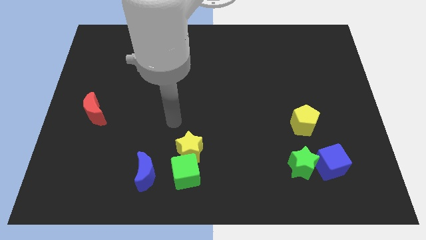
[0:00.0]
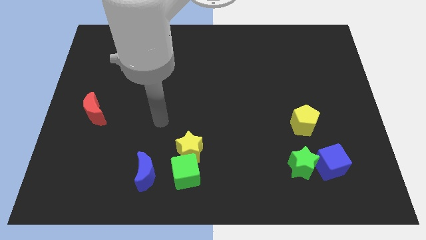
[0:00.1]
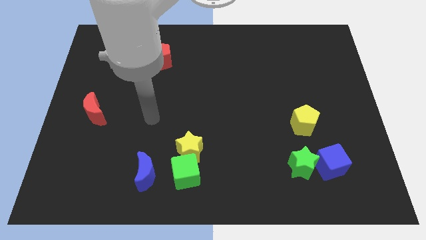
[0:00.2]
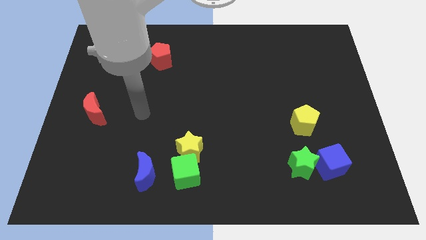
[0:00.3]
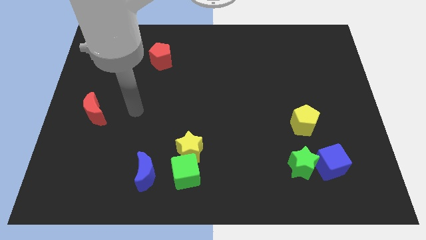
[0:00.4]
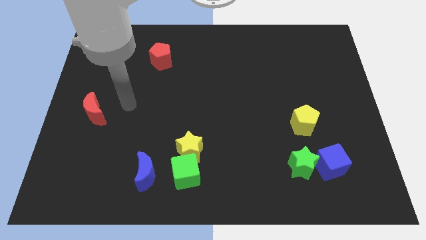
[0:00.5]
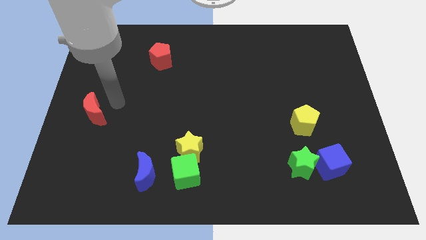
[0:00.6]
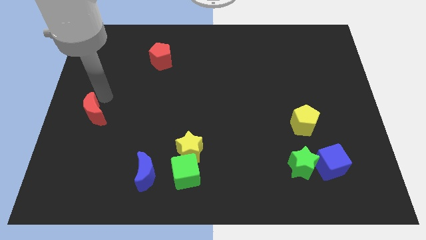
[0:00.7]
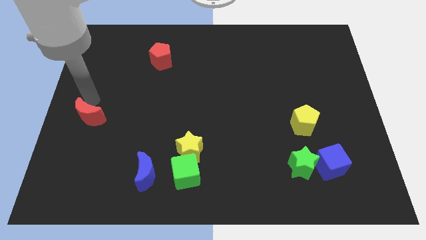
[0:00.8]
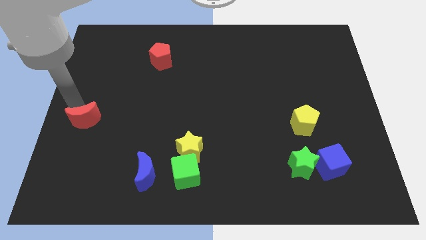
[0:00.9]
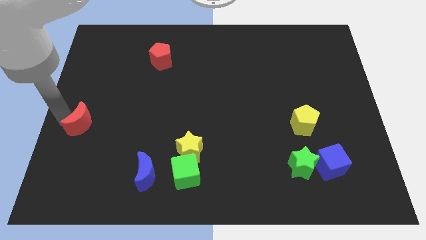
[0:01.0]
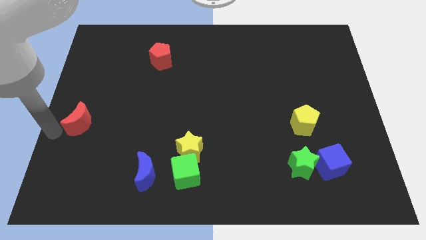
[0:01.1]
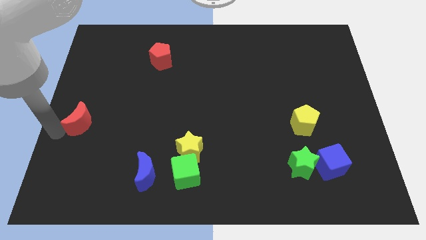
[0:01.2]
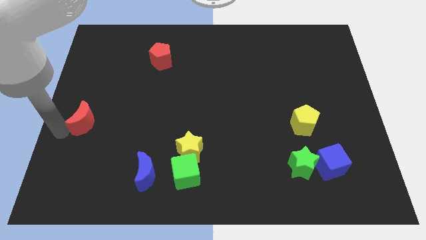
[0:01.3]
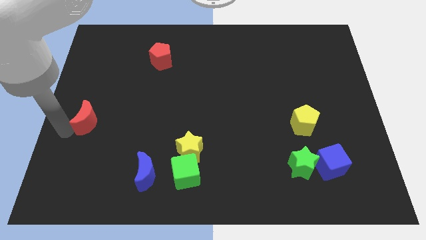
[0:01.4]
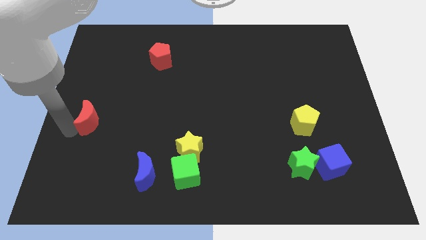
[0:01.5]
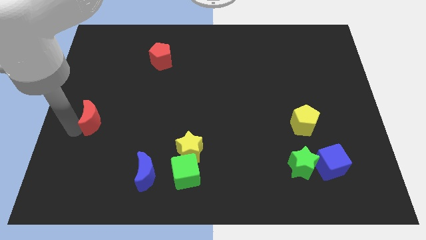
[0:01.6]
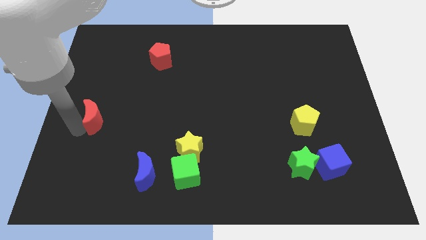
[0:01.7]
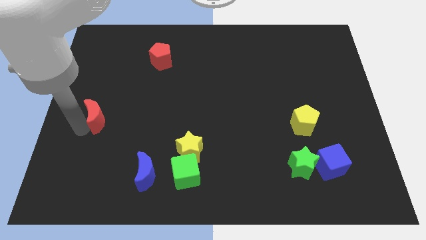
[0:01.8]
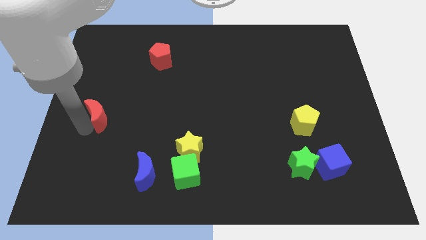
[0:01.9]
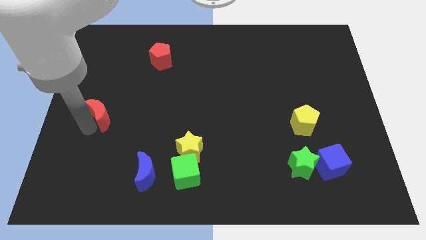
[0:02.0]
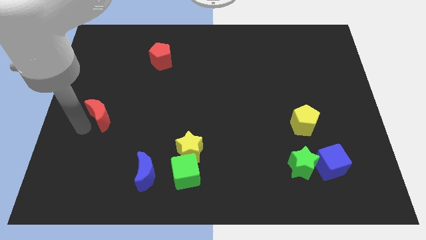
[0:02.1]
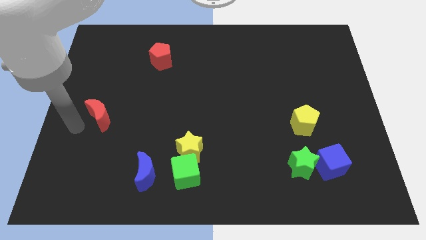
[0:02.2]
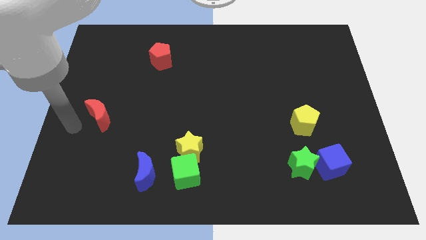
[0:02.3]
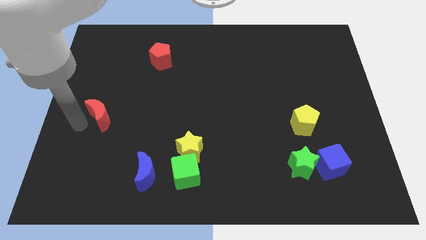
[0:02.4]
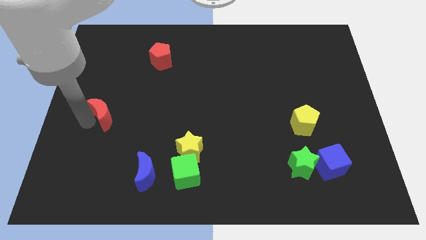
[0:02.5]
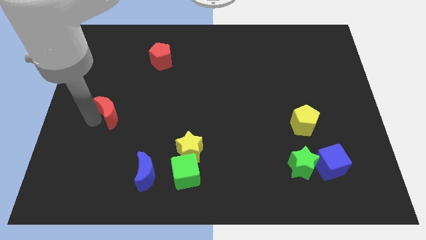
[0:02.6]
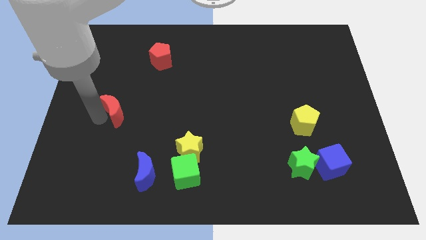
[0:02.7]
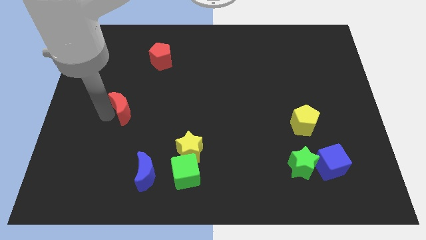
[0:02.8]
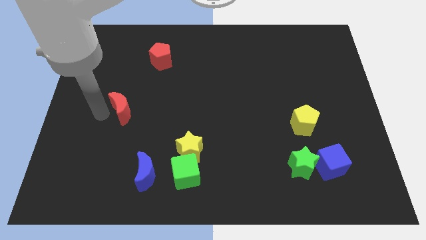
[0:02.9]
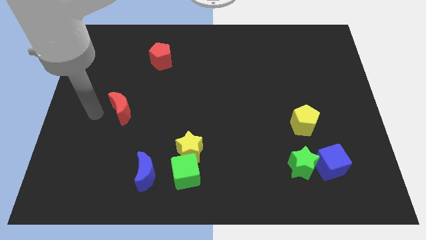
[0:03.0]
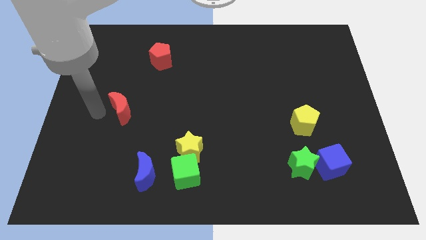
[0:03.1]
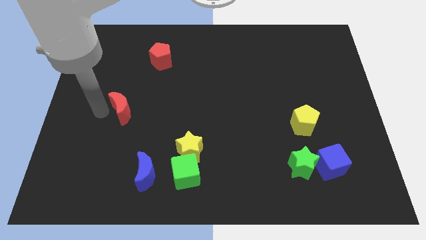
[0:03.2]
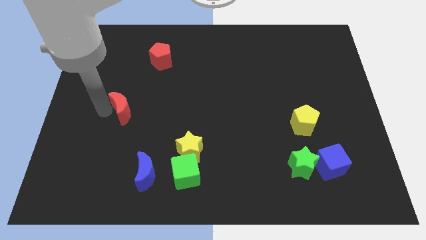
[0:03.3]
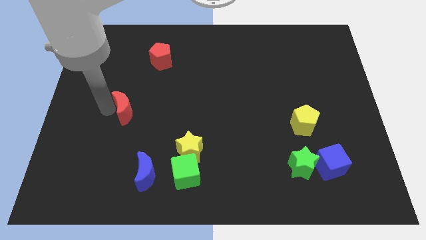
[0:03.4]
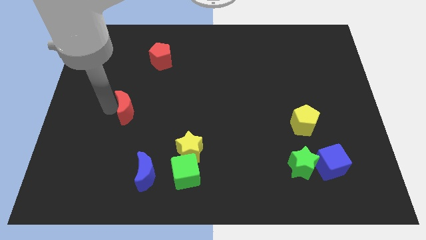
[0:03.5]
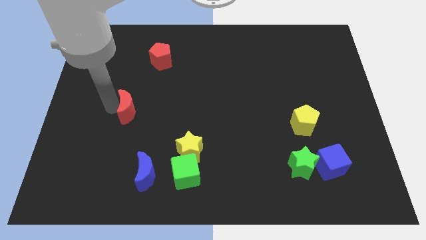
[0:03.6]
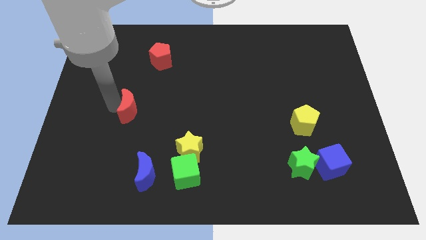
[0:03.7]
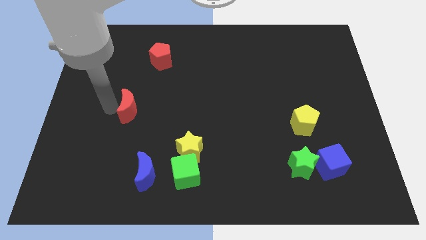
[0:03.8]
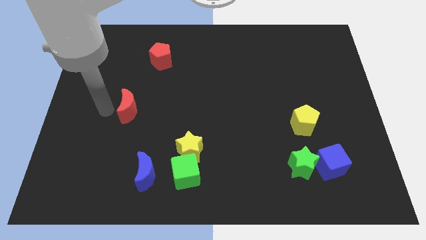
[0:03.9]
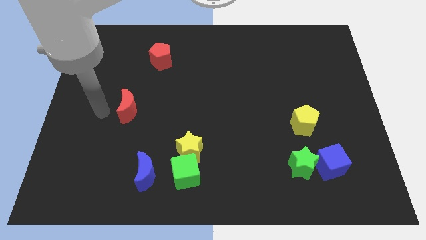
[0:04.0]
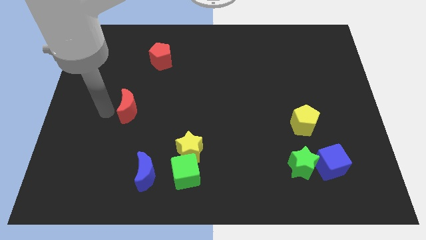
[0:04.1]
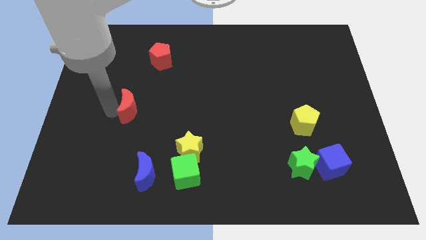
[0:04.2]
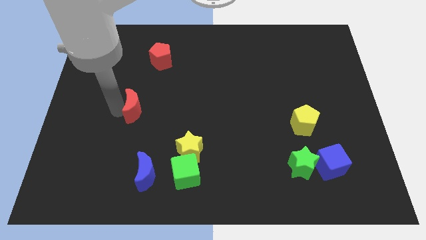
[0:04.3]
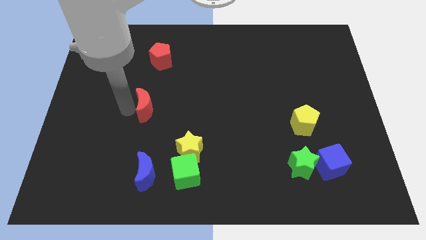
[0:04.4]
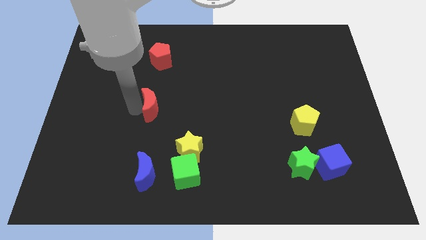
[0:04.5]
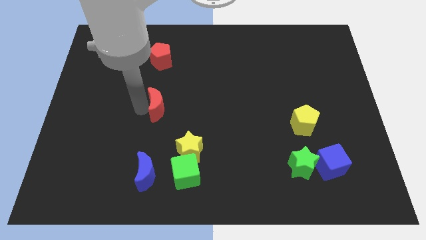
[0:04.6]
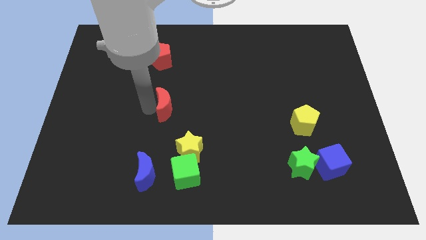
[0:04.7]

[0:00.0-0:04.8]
slide the red moon to the center

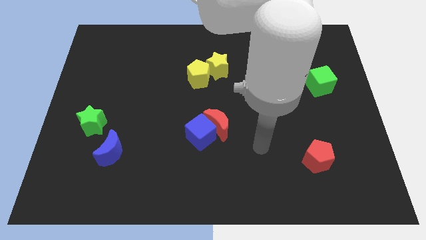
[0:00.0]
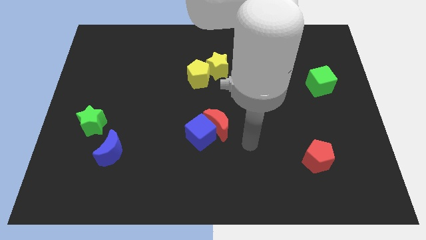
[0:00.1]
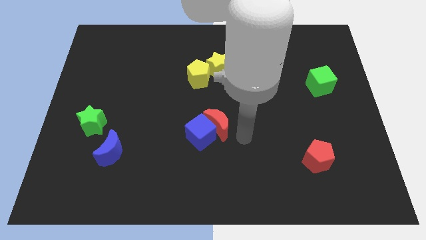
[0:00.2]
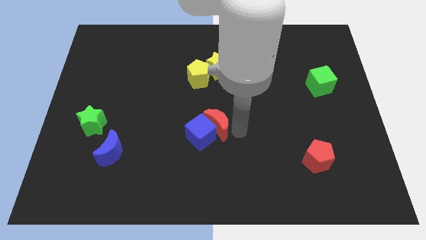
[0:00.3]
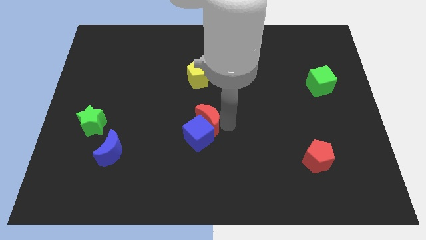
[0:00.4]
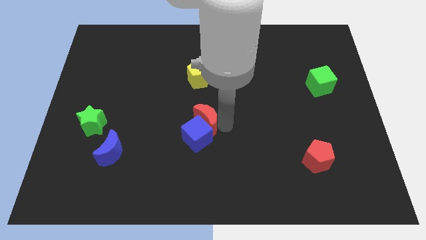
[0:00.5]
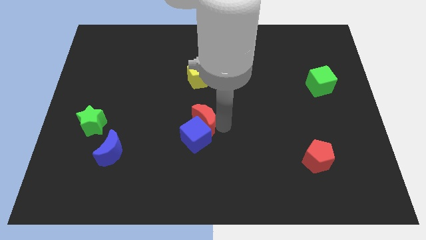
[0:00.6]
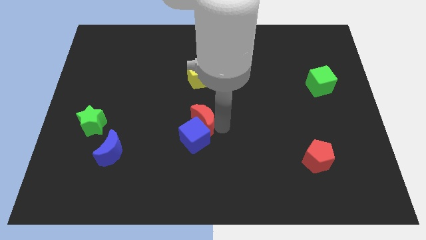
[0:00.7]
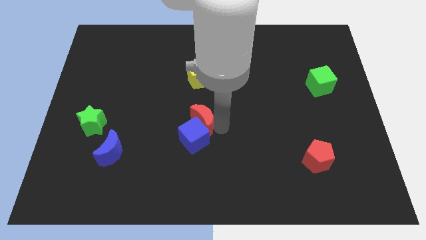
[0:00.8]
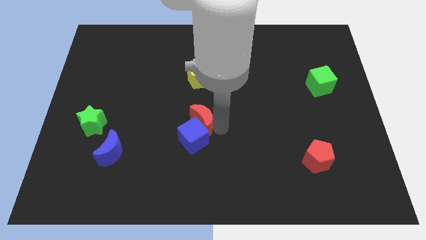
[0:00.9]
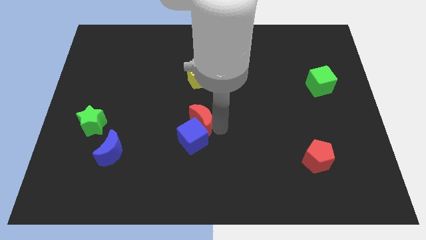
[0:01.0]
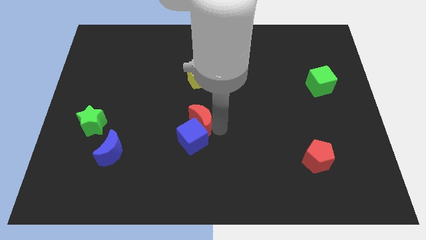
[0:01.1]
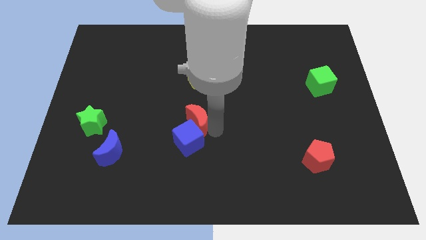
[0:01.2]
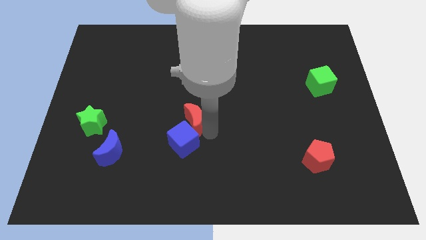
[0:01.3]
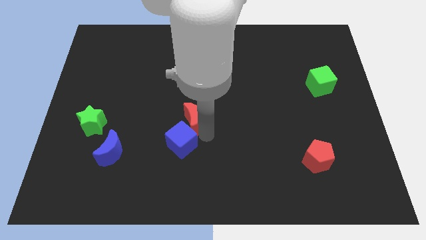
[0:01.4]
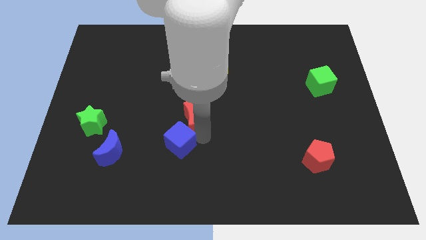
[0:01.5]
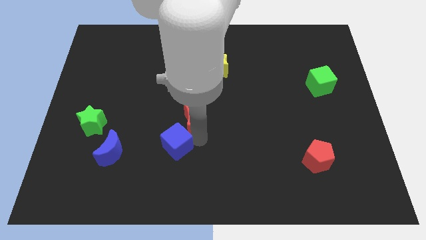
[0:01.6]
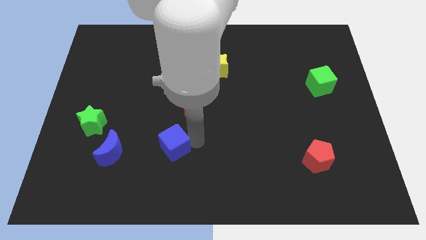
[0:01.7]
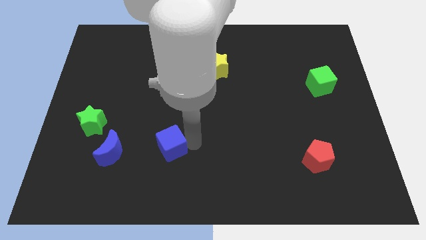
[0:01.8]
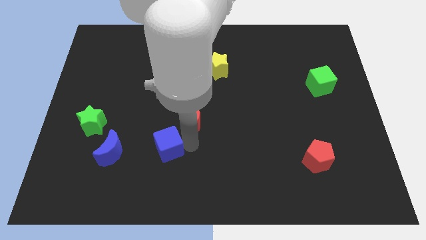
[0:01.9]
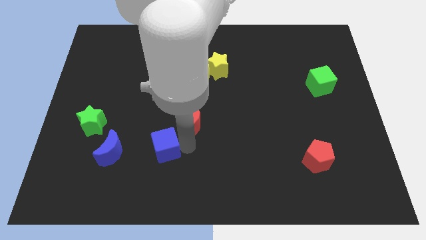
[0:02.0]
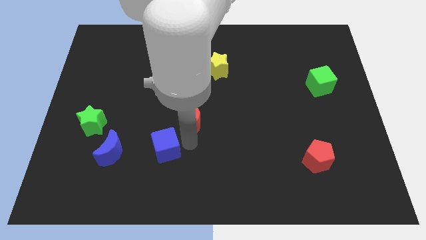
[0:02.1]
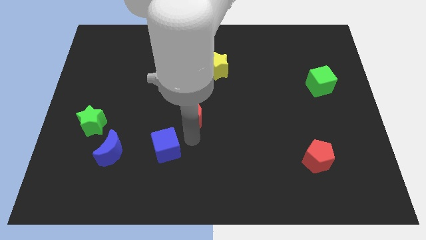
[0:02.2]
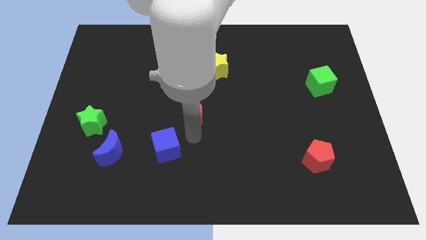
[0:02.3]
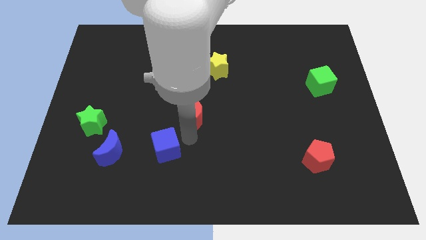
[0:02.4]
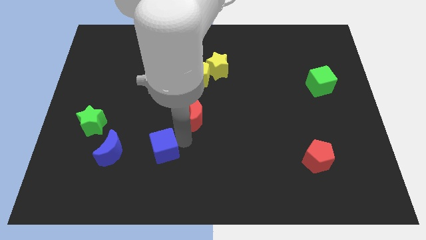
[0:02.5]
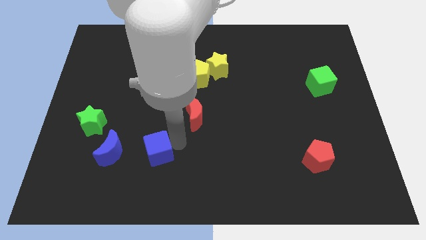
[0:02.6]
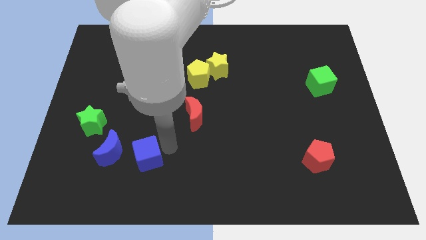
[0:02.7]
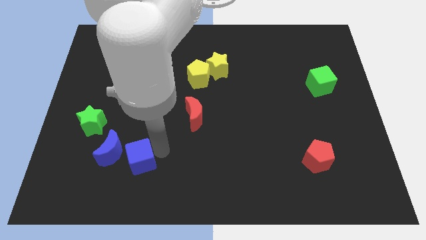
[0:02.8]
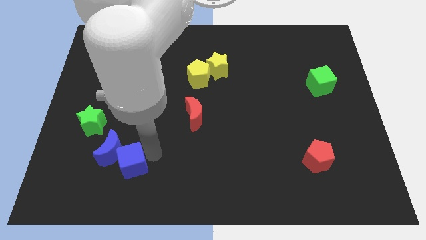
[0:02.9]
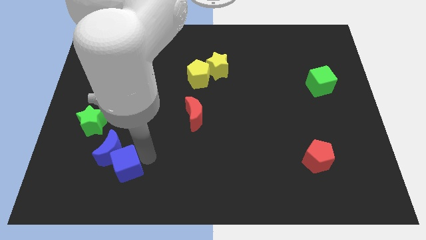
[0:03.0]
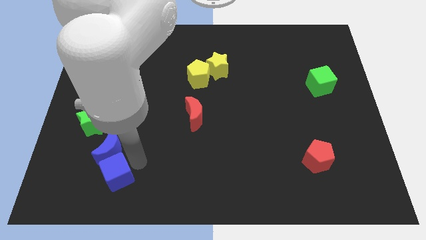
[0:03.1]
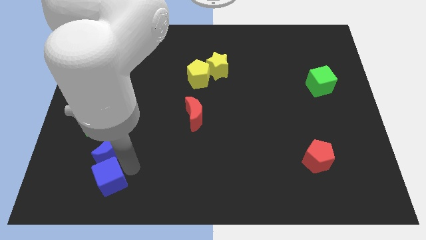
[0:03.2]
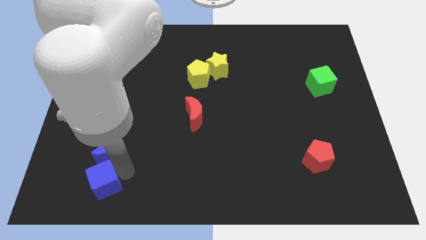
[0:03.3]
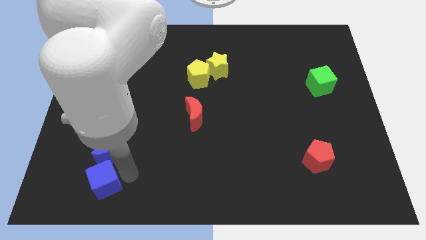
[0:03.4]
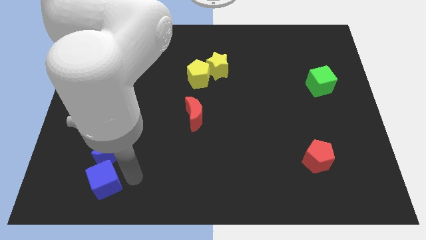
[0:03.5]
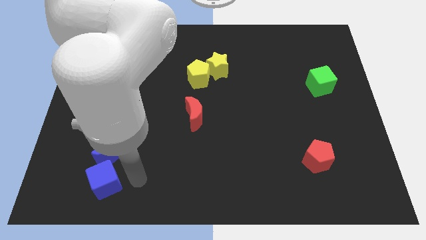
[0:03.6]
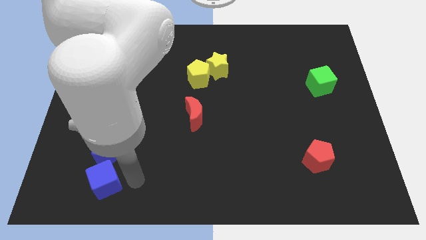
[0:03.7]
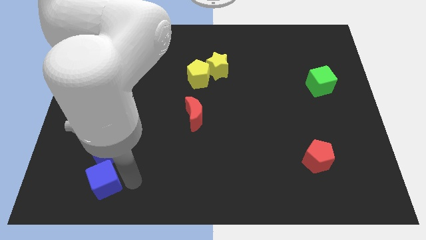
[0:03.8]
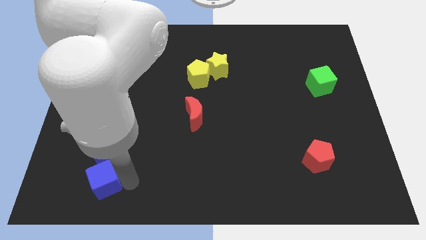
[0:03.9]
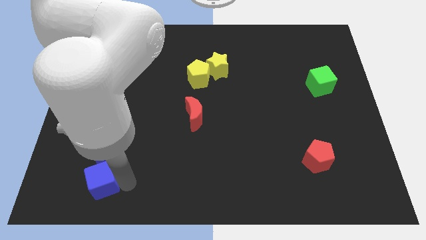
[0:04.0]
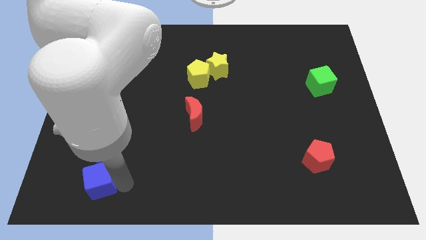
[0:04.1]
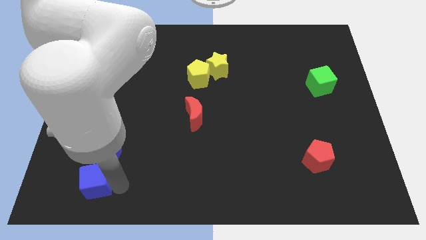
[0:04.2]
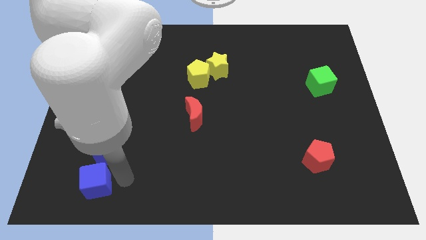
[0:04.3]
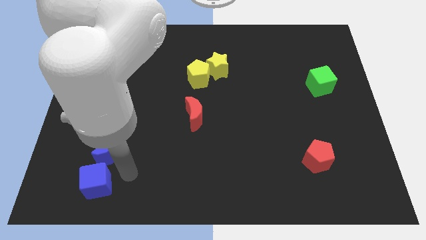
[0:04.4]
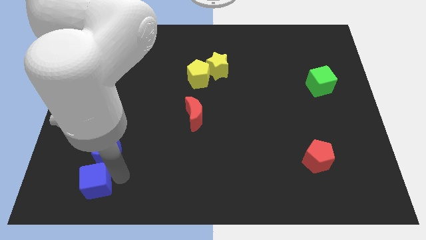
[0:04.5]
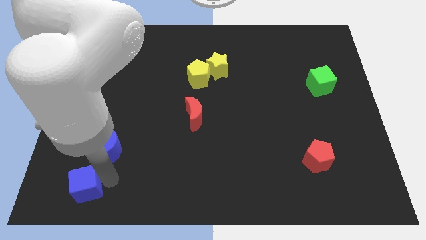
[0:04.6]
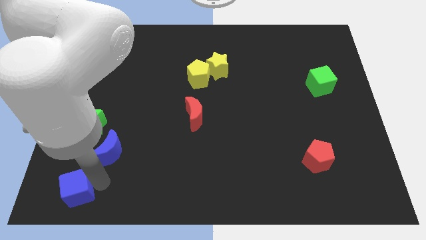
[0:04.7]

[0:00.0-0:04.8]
push the blue cube to the lower left corner
